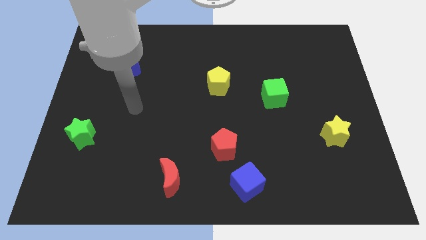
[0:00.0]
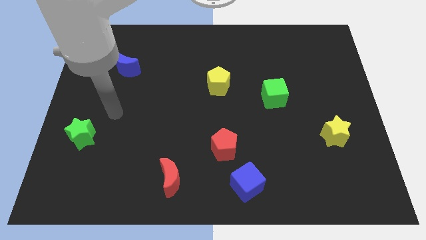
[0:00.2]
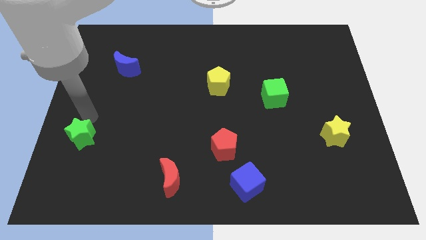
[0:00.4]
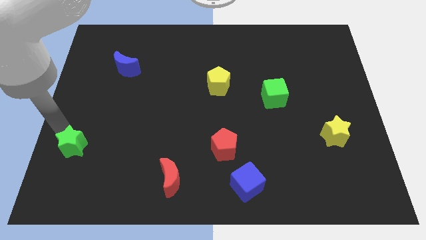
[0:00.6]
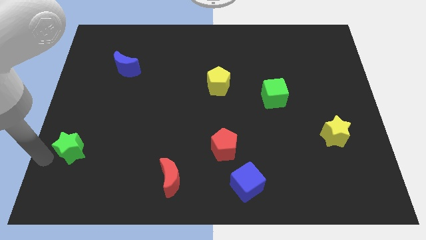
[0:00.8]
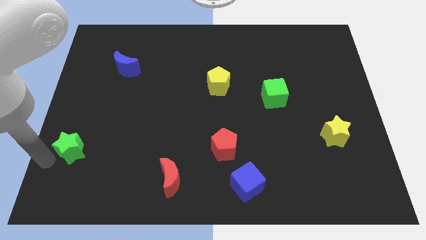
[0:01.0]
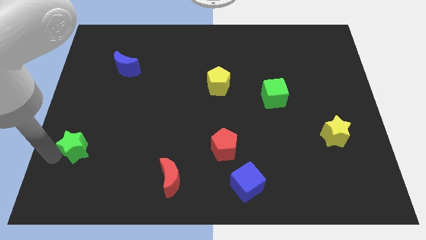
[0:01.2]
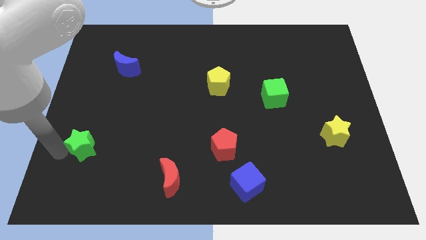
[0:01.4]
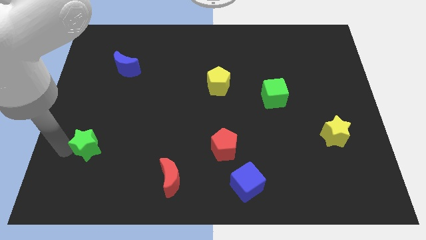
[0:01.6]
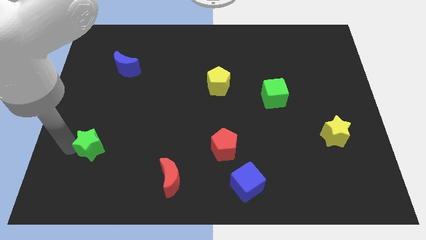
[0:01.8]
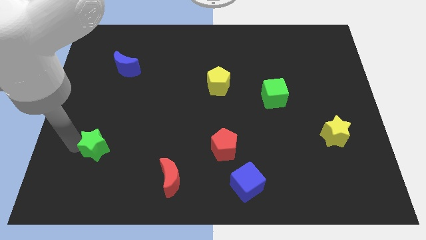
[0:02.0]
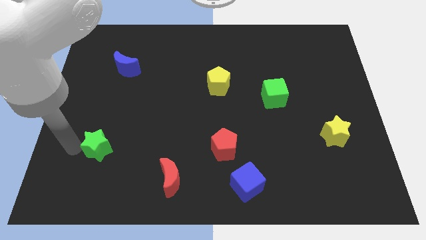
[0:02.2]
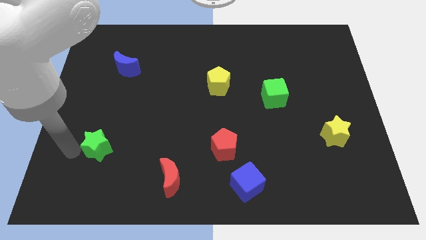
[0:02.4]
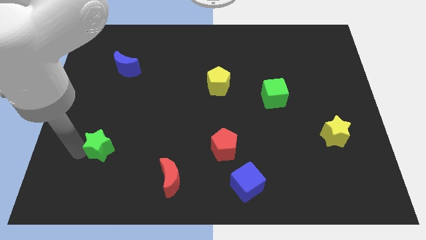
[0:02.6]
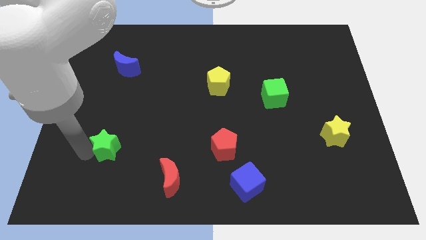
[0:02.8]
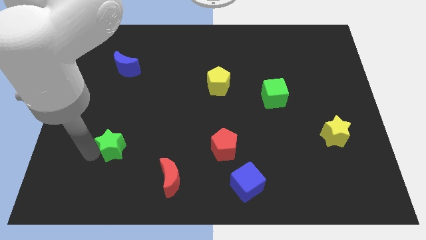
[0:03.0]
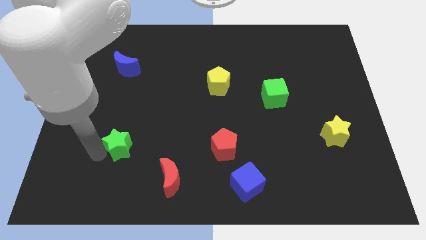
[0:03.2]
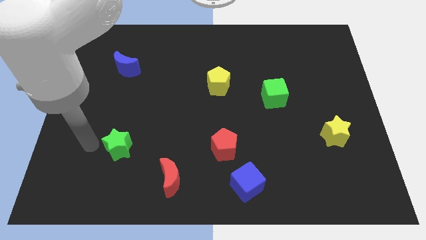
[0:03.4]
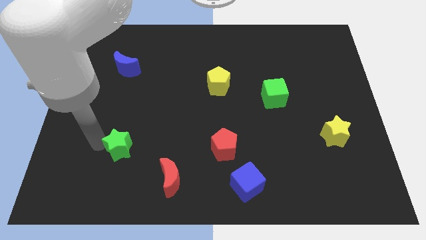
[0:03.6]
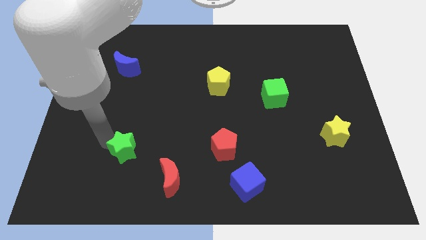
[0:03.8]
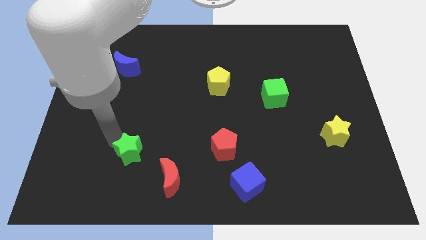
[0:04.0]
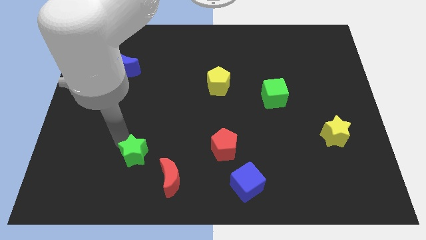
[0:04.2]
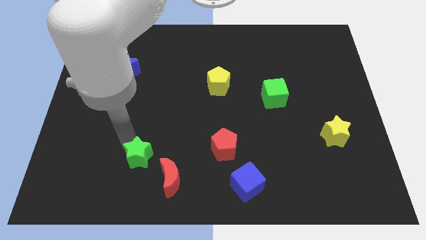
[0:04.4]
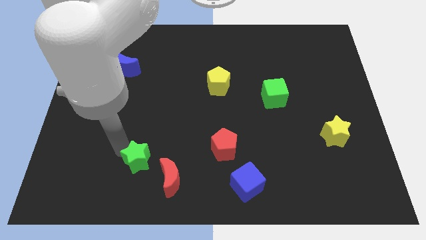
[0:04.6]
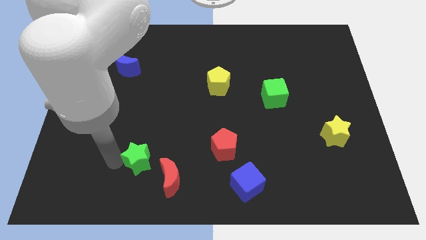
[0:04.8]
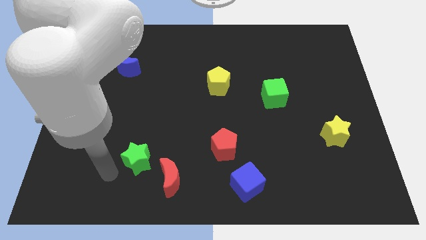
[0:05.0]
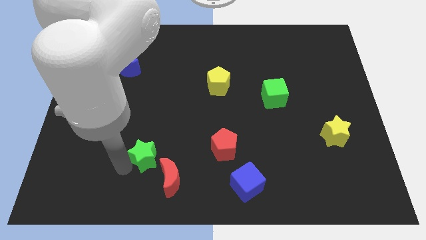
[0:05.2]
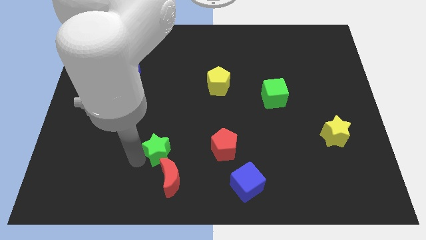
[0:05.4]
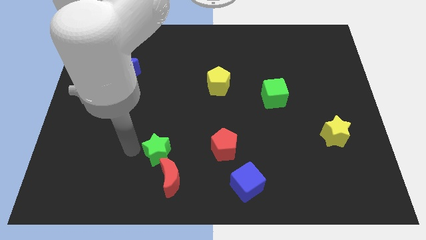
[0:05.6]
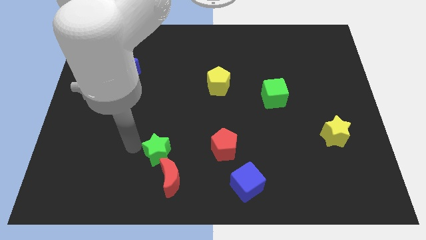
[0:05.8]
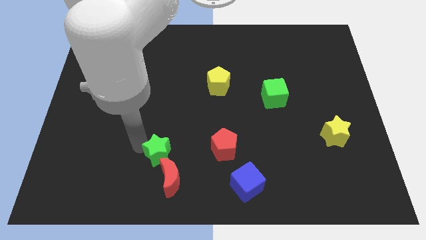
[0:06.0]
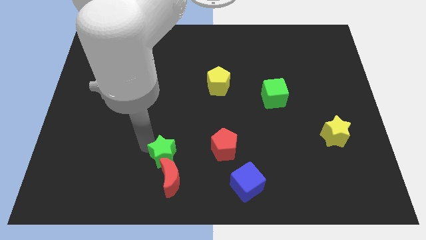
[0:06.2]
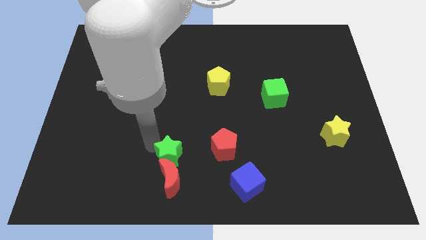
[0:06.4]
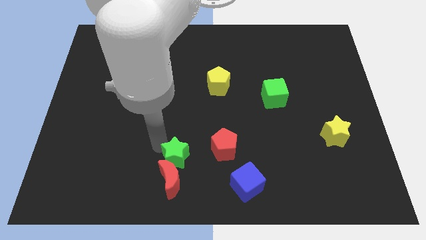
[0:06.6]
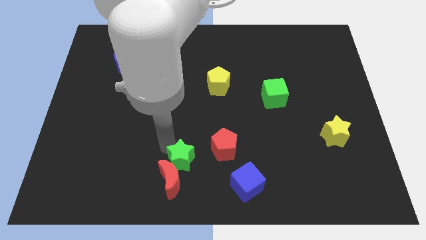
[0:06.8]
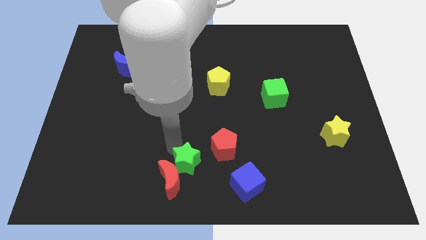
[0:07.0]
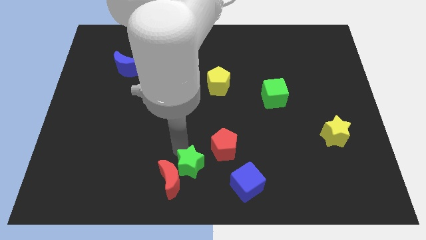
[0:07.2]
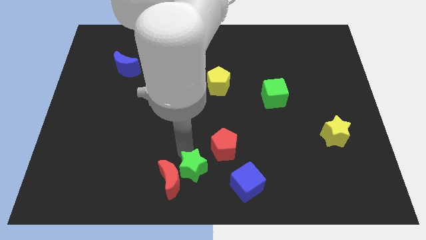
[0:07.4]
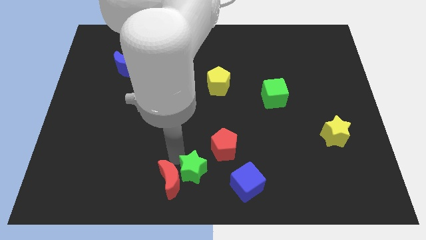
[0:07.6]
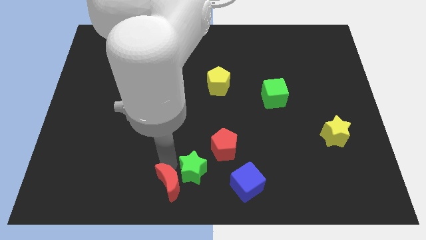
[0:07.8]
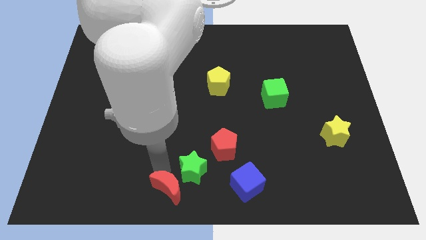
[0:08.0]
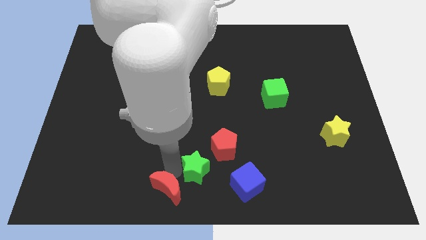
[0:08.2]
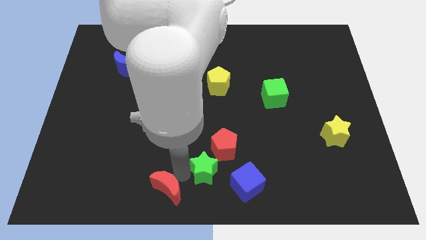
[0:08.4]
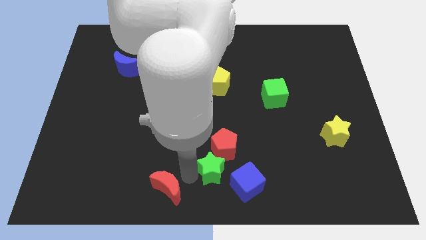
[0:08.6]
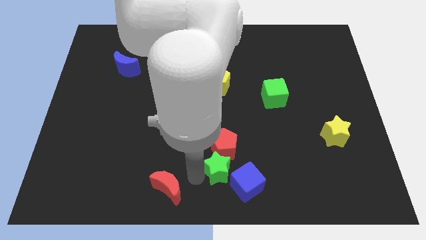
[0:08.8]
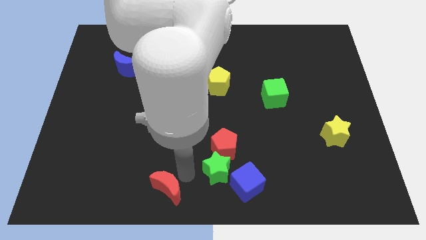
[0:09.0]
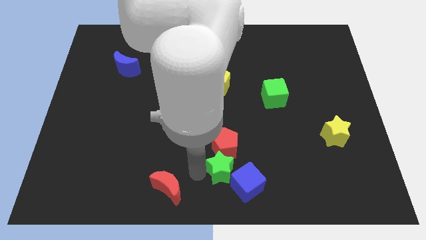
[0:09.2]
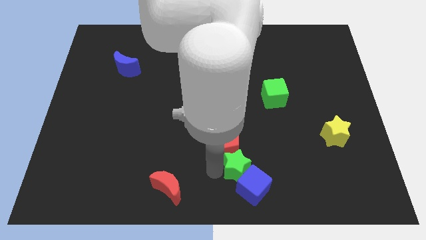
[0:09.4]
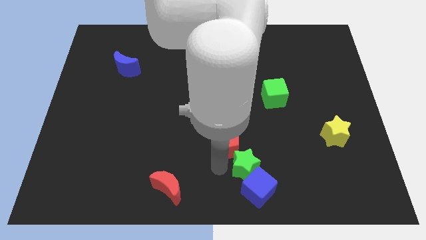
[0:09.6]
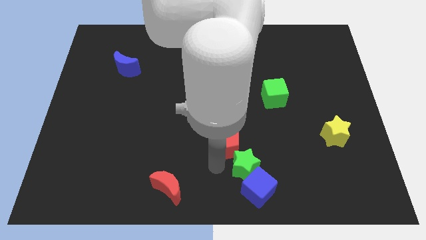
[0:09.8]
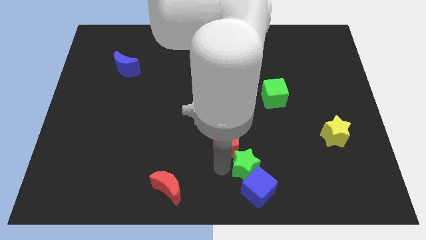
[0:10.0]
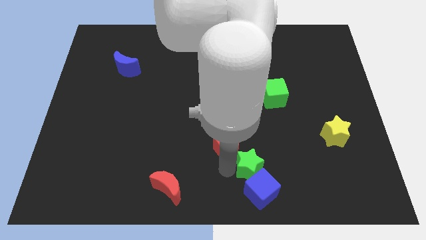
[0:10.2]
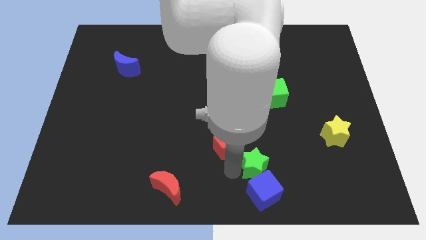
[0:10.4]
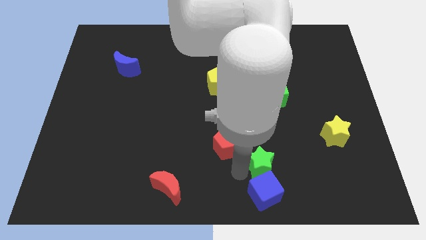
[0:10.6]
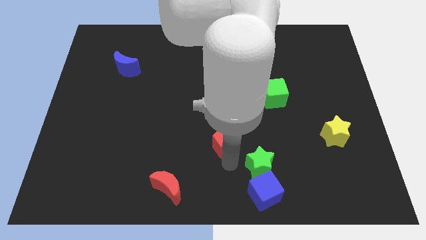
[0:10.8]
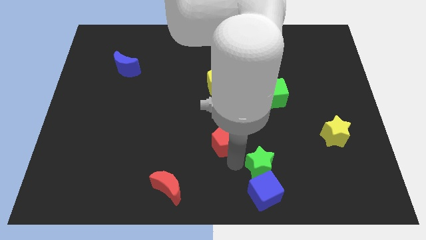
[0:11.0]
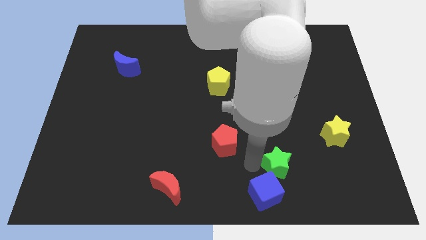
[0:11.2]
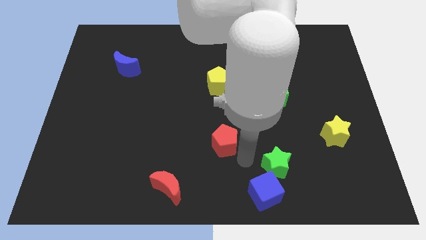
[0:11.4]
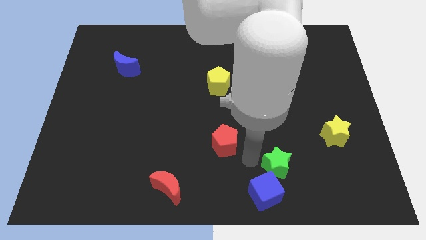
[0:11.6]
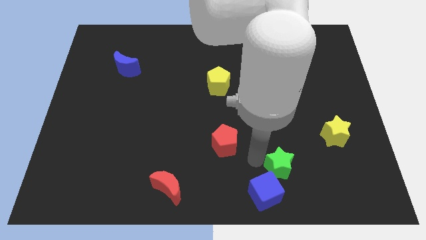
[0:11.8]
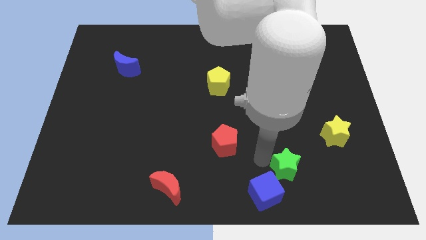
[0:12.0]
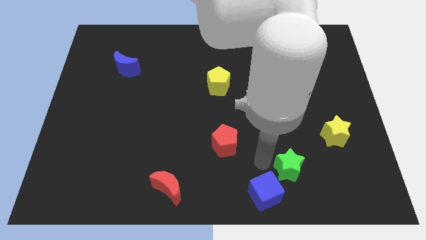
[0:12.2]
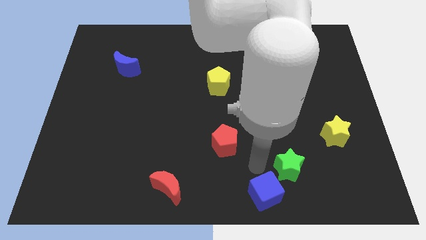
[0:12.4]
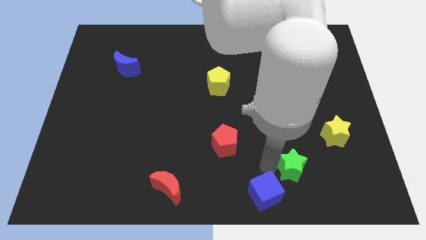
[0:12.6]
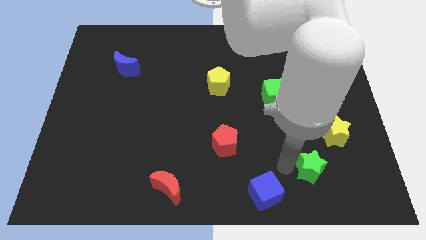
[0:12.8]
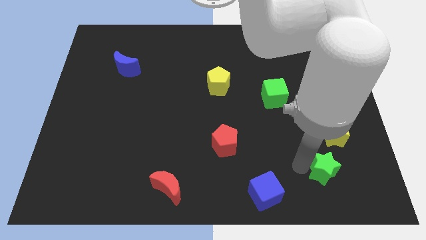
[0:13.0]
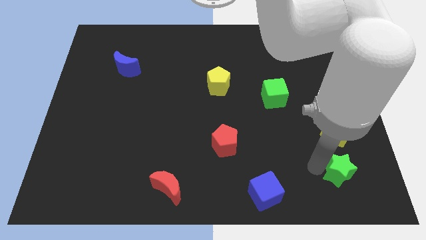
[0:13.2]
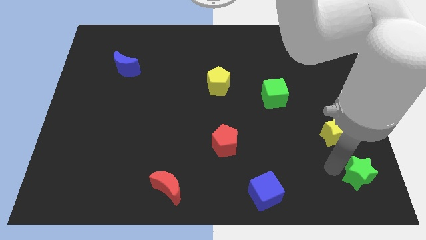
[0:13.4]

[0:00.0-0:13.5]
slide the green star to the lower right corner

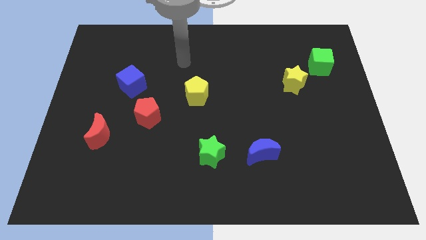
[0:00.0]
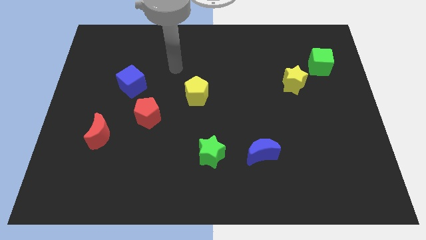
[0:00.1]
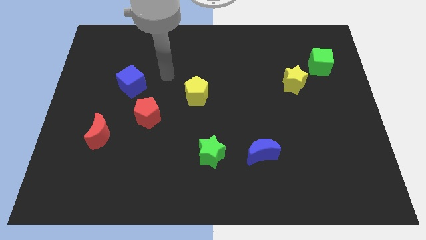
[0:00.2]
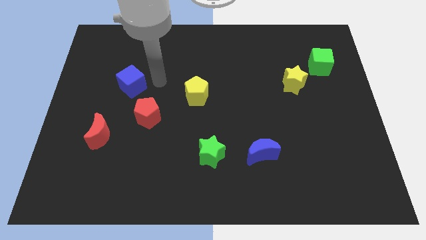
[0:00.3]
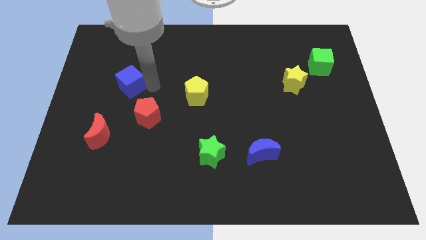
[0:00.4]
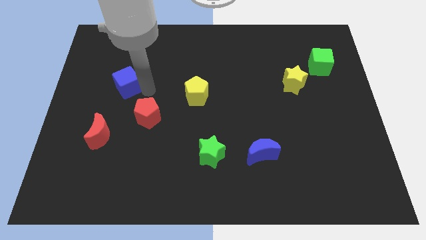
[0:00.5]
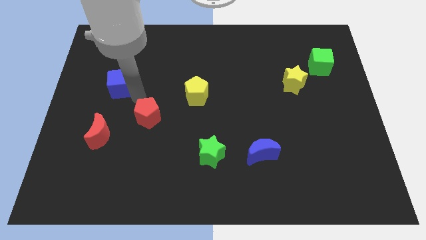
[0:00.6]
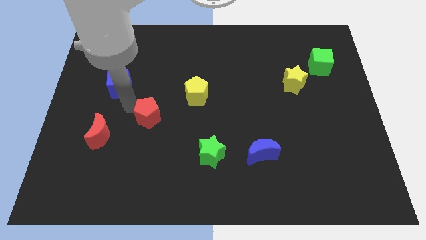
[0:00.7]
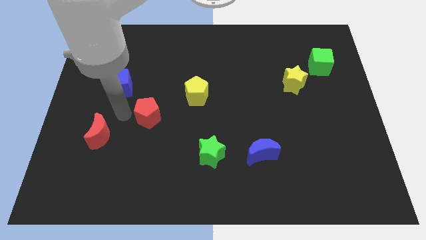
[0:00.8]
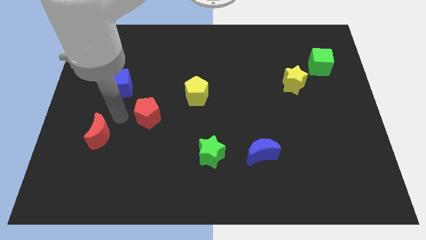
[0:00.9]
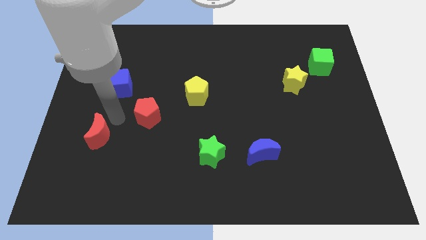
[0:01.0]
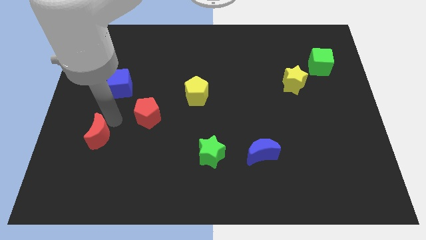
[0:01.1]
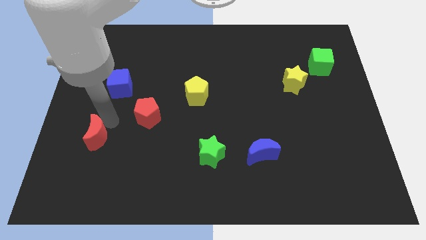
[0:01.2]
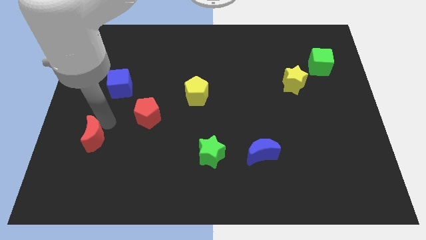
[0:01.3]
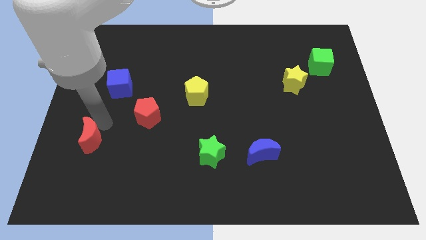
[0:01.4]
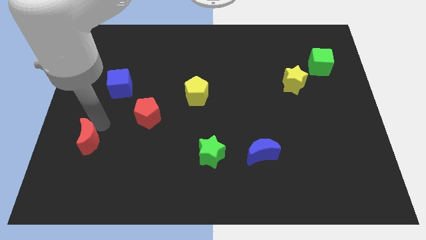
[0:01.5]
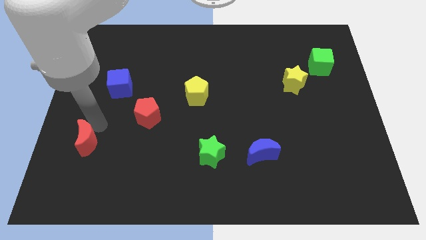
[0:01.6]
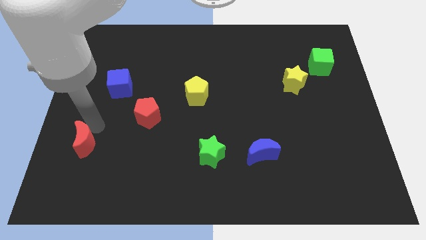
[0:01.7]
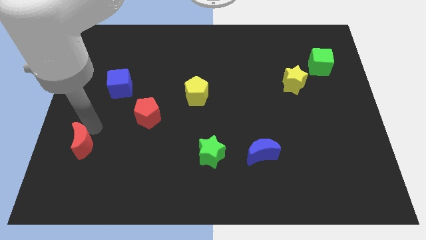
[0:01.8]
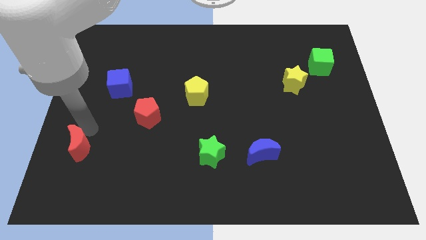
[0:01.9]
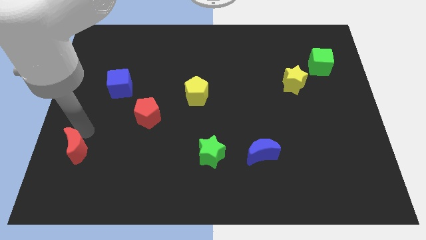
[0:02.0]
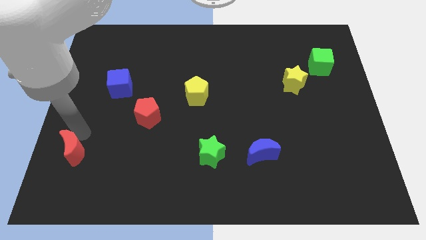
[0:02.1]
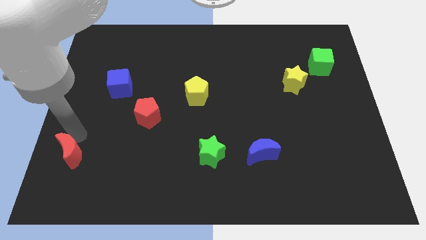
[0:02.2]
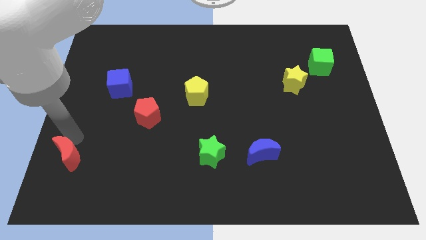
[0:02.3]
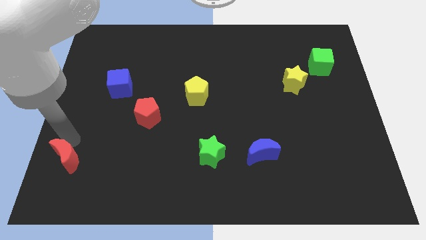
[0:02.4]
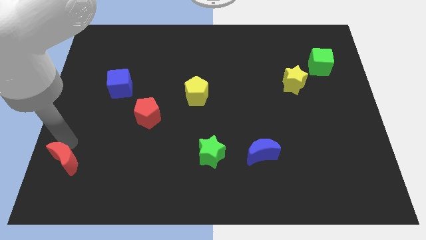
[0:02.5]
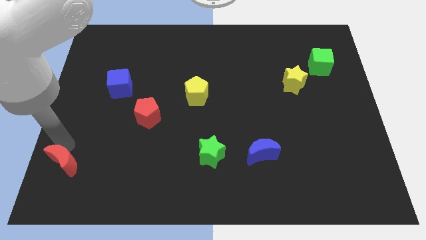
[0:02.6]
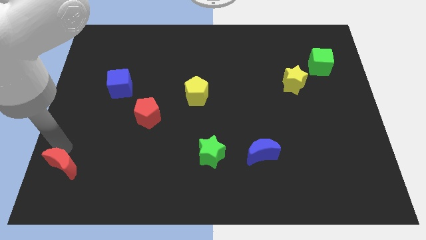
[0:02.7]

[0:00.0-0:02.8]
put the red moon to the bottom left
